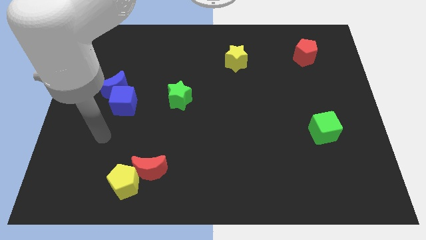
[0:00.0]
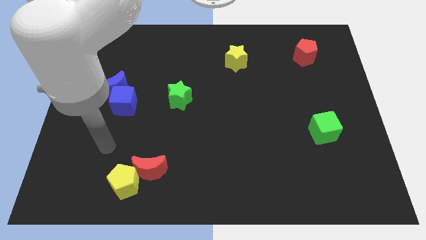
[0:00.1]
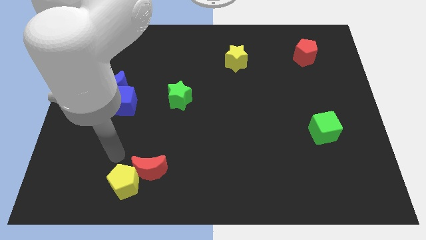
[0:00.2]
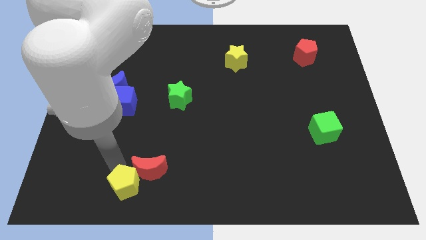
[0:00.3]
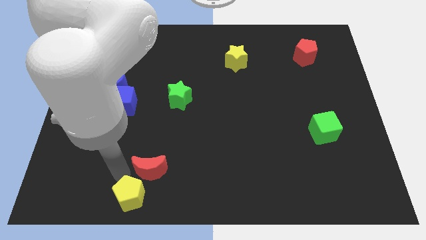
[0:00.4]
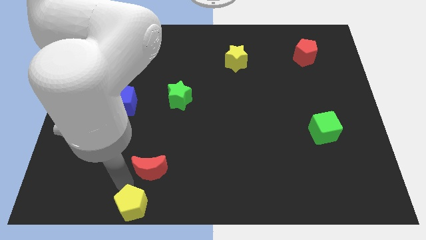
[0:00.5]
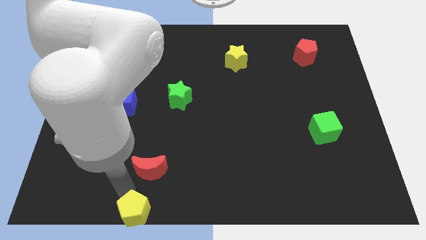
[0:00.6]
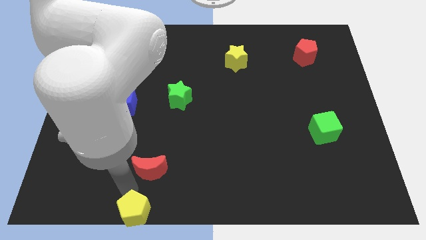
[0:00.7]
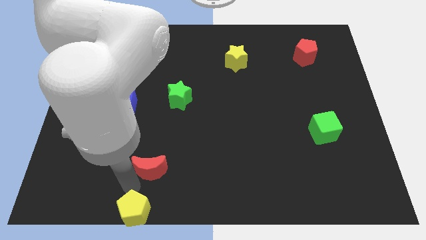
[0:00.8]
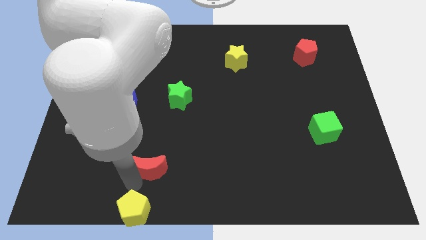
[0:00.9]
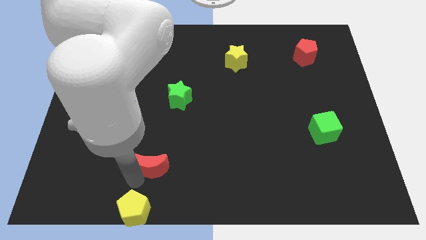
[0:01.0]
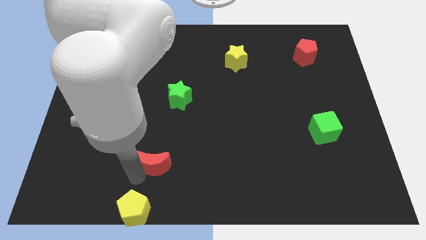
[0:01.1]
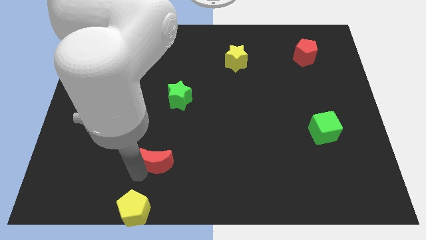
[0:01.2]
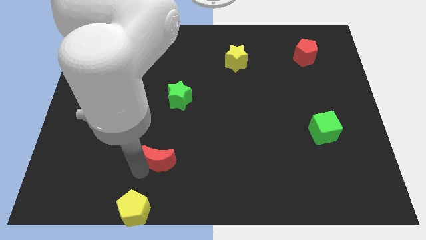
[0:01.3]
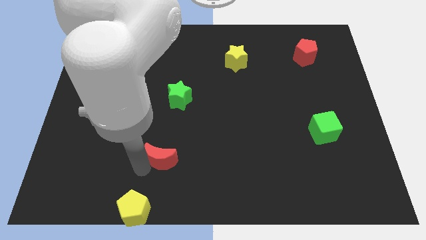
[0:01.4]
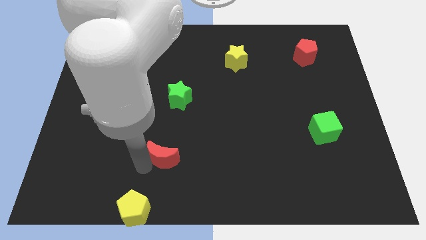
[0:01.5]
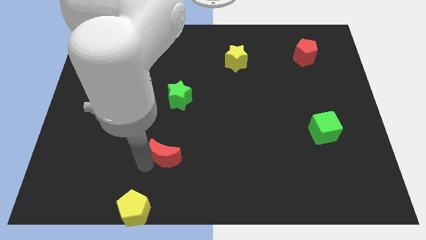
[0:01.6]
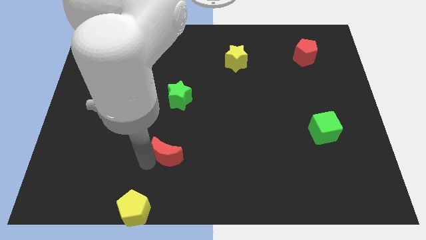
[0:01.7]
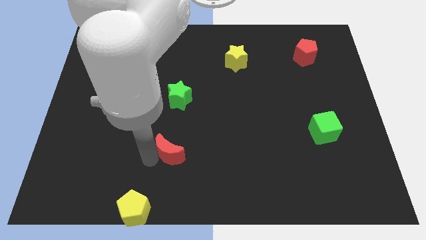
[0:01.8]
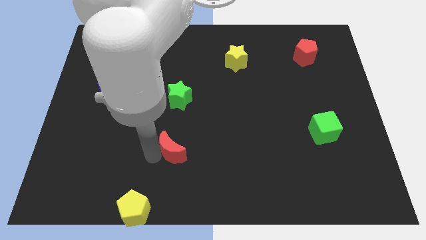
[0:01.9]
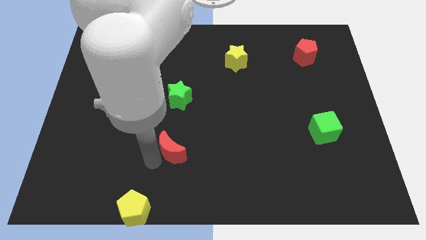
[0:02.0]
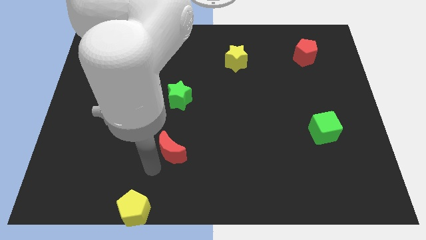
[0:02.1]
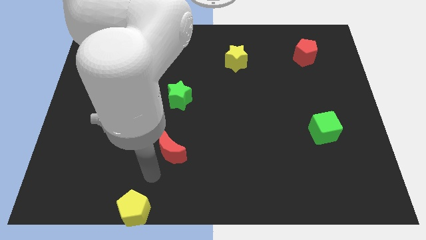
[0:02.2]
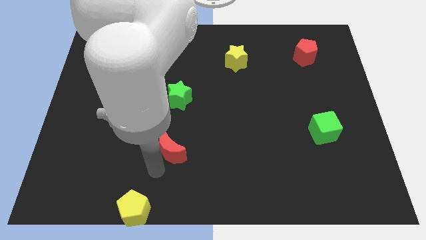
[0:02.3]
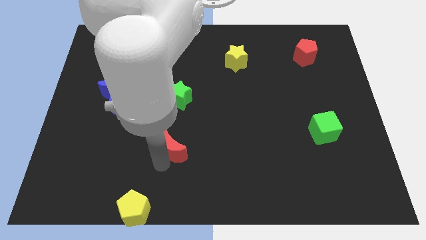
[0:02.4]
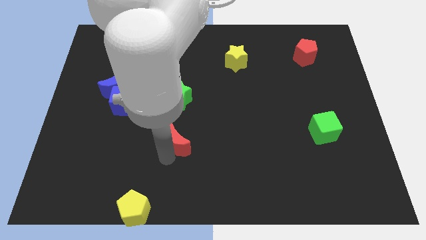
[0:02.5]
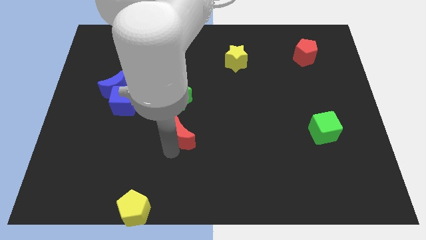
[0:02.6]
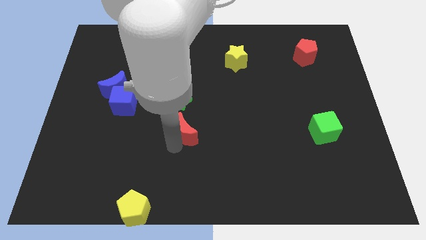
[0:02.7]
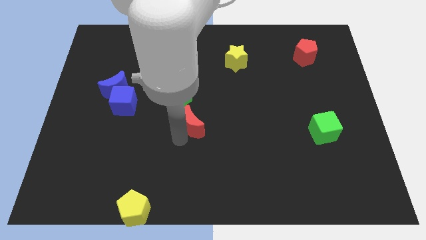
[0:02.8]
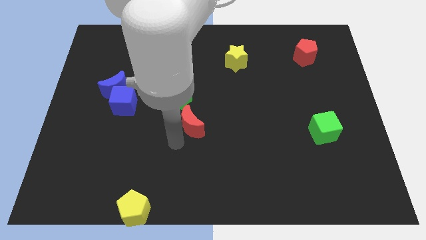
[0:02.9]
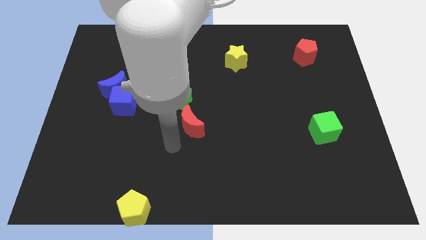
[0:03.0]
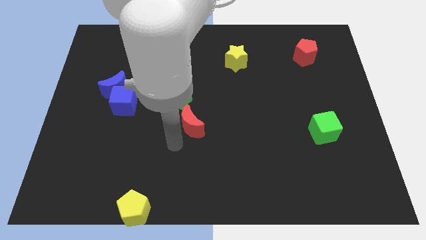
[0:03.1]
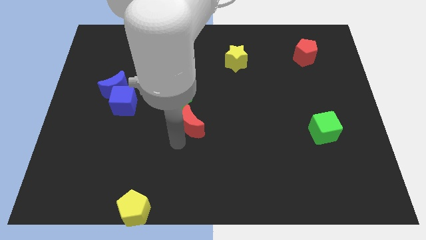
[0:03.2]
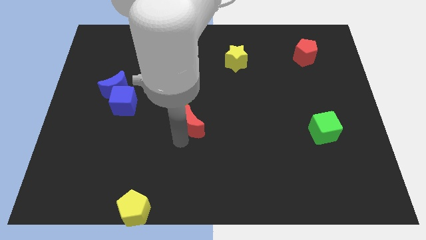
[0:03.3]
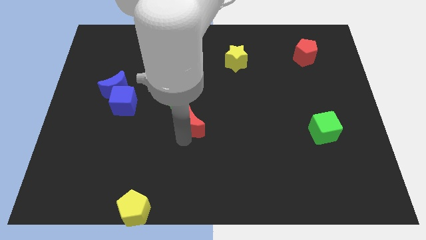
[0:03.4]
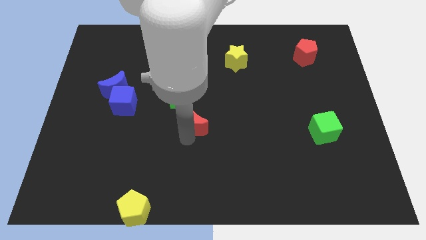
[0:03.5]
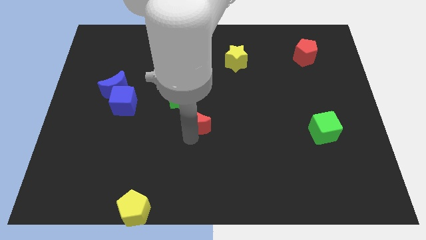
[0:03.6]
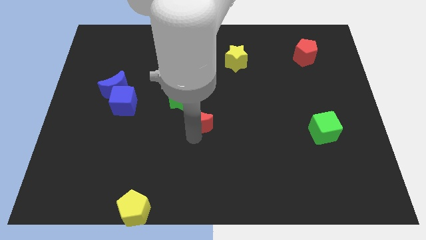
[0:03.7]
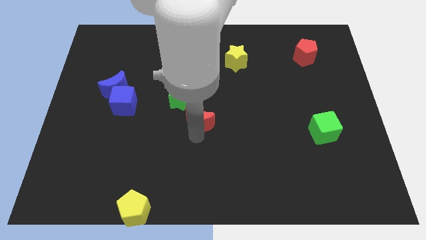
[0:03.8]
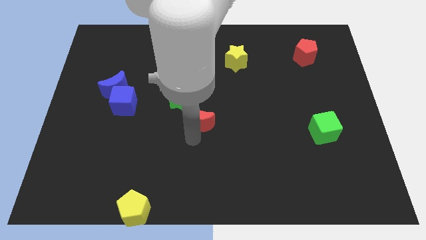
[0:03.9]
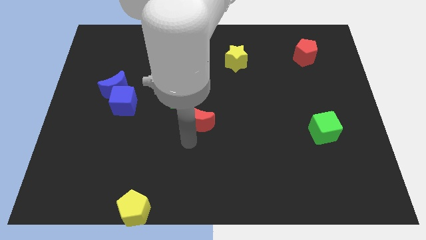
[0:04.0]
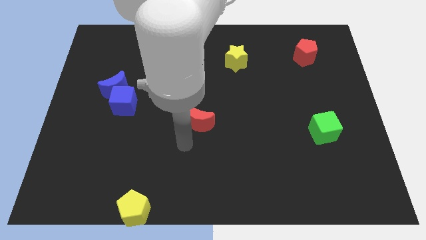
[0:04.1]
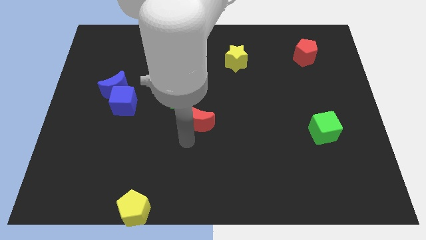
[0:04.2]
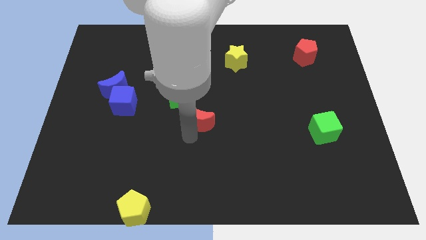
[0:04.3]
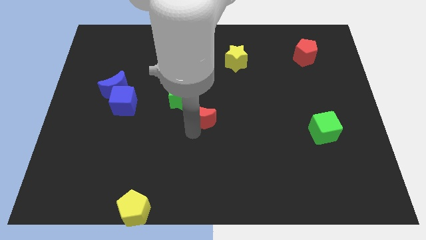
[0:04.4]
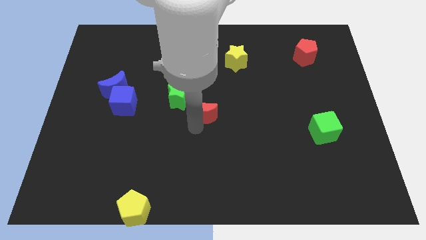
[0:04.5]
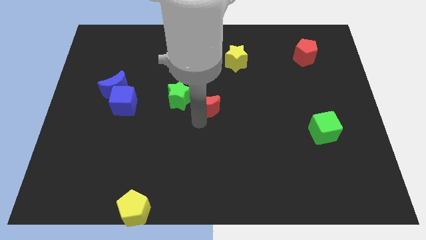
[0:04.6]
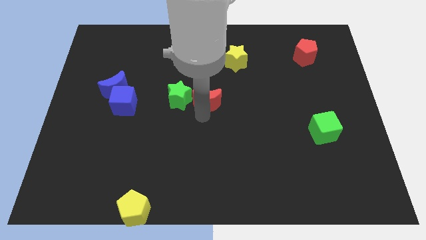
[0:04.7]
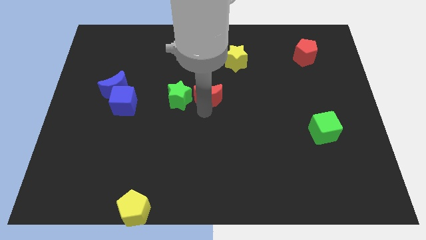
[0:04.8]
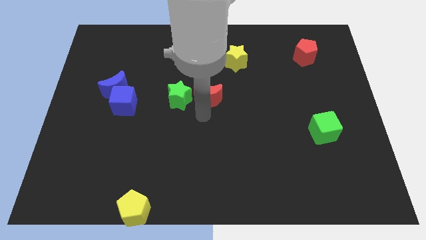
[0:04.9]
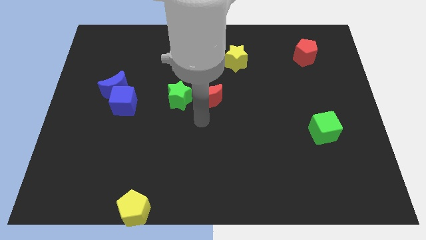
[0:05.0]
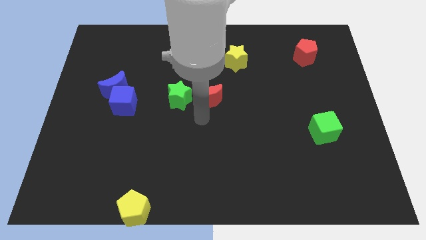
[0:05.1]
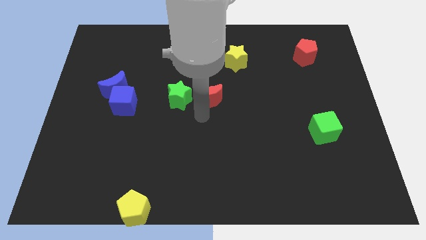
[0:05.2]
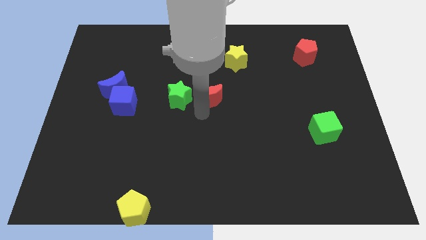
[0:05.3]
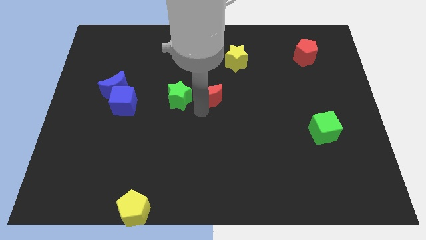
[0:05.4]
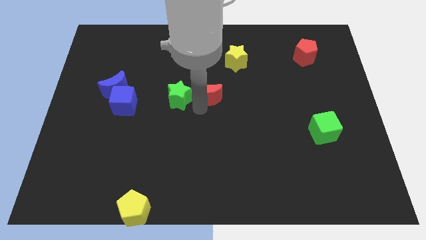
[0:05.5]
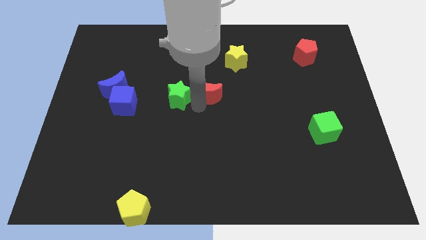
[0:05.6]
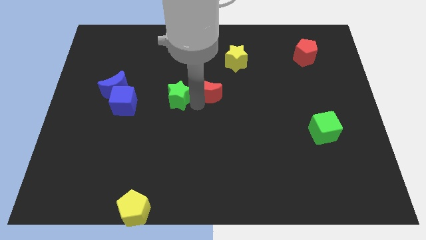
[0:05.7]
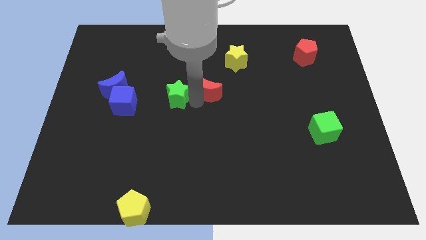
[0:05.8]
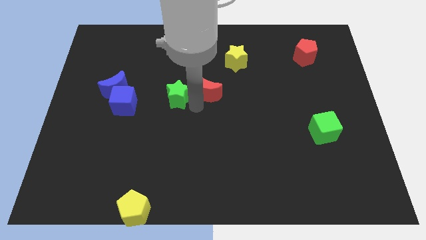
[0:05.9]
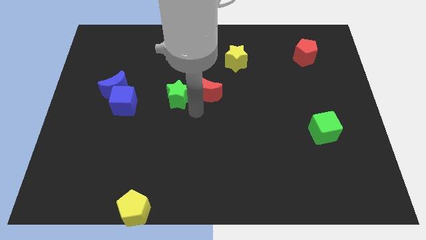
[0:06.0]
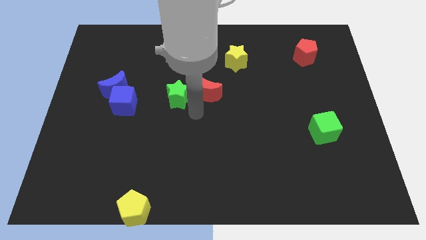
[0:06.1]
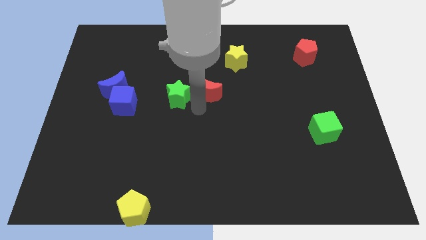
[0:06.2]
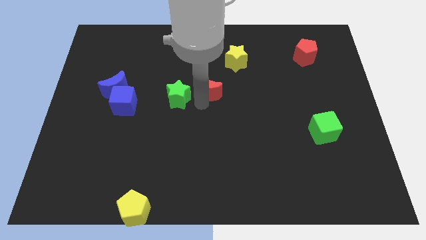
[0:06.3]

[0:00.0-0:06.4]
put the red moon diagonally down and to the left of the yellow star

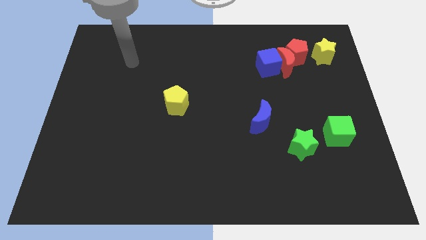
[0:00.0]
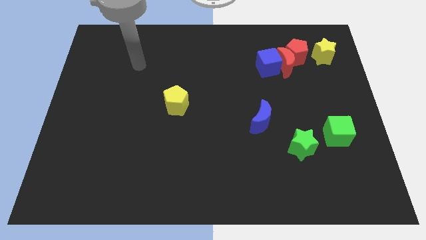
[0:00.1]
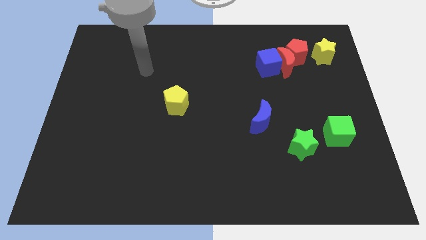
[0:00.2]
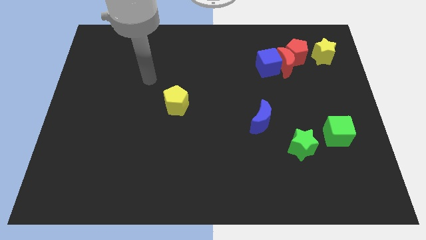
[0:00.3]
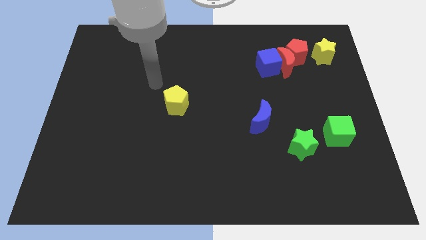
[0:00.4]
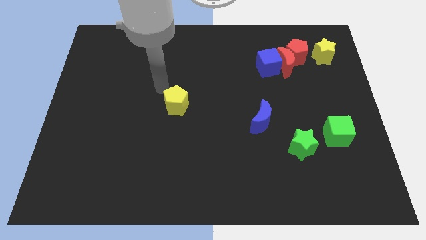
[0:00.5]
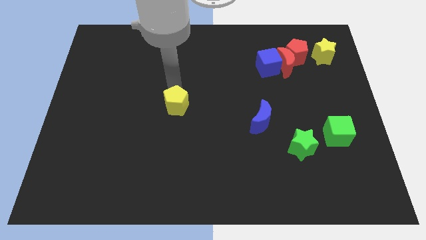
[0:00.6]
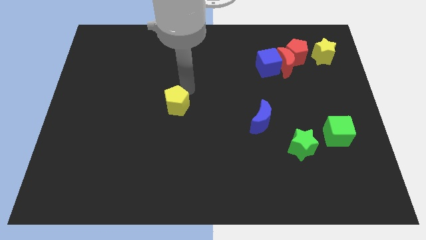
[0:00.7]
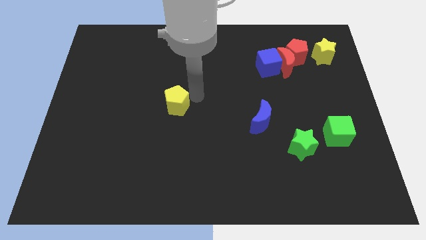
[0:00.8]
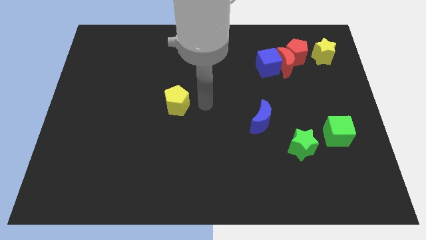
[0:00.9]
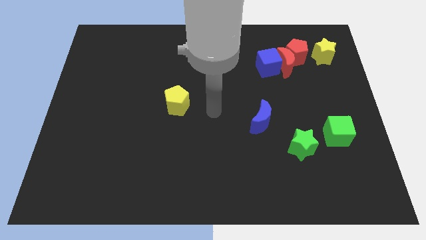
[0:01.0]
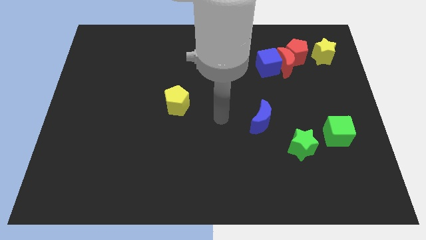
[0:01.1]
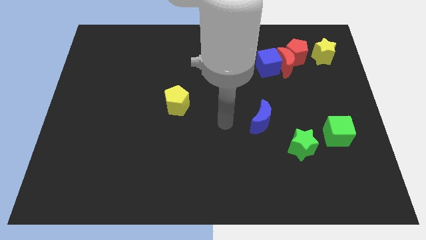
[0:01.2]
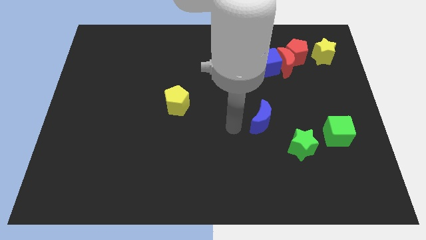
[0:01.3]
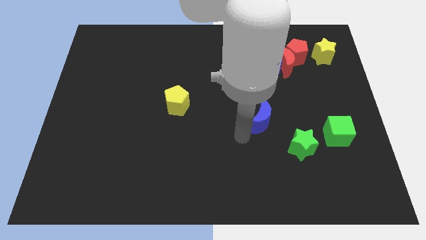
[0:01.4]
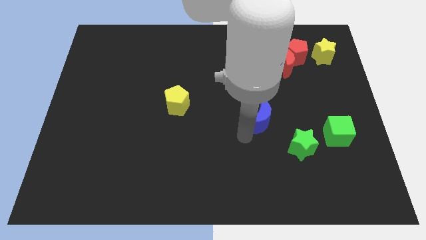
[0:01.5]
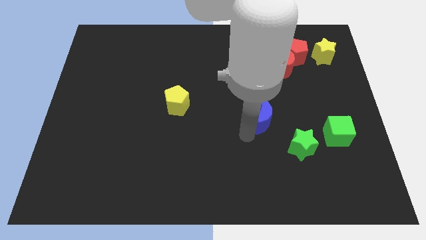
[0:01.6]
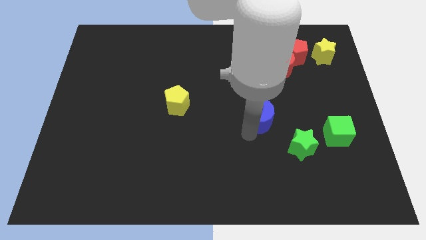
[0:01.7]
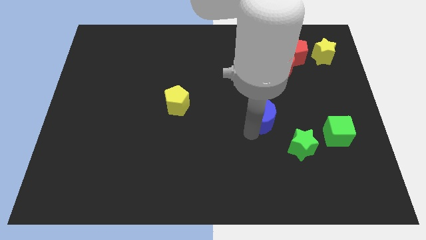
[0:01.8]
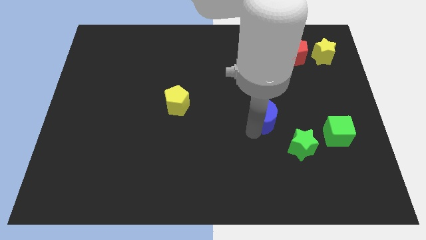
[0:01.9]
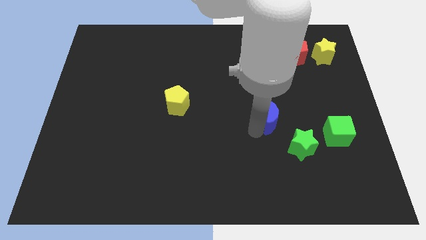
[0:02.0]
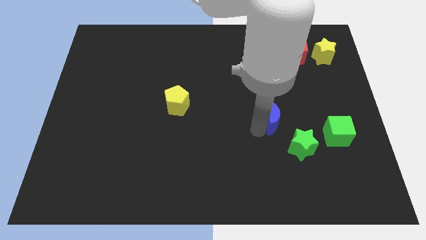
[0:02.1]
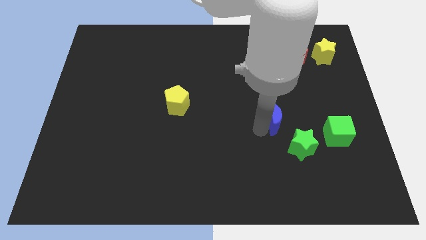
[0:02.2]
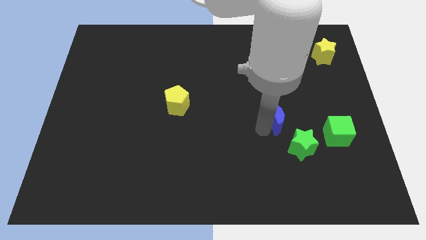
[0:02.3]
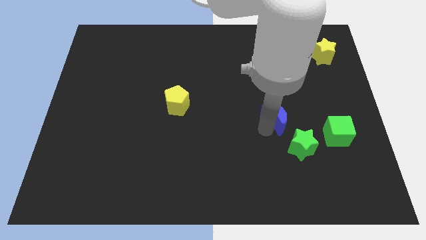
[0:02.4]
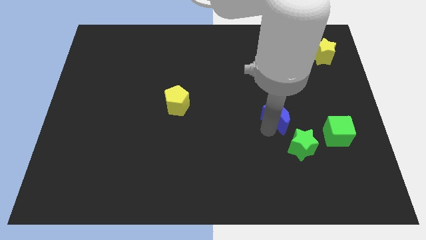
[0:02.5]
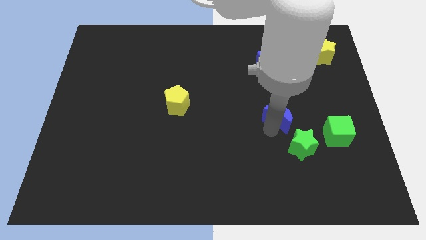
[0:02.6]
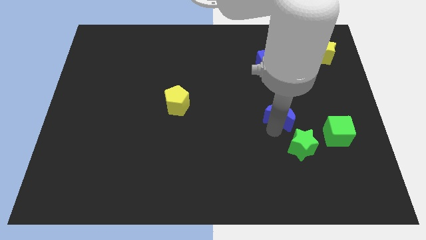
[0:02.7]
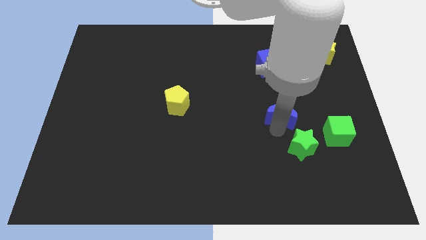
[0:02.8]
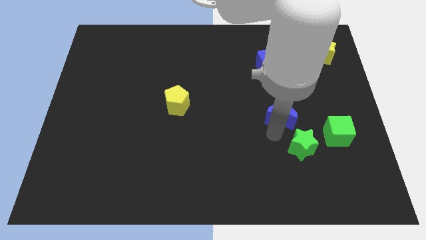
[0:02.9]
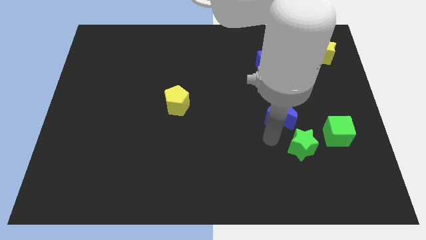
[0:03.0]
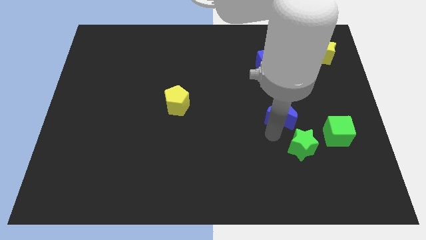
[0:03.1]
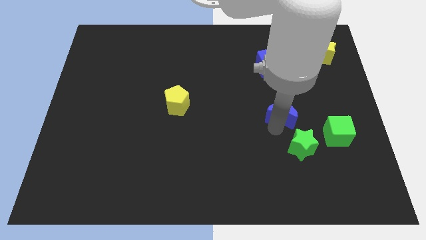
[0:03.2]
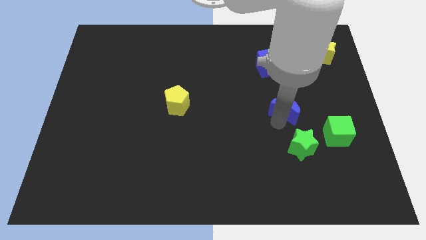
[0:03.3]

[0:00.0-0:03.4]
push the blue moon to the bottom of the red moon
